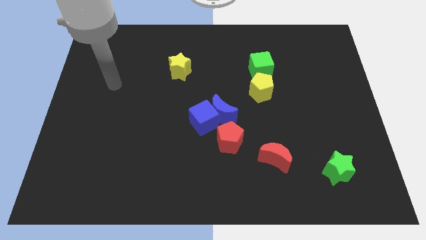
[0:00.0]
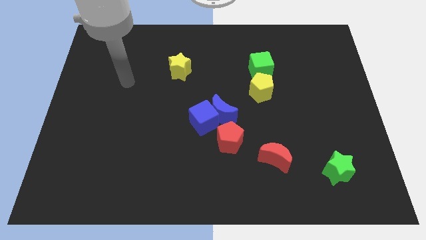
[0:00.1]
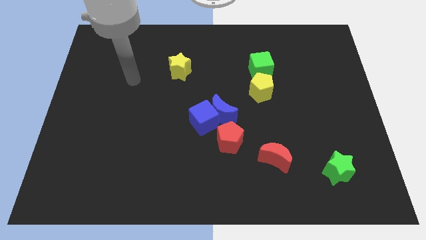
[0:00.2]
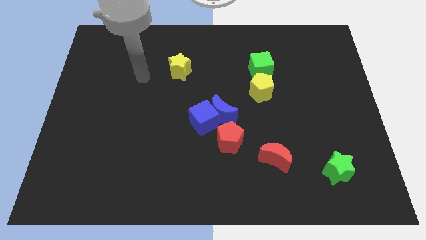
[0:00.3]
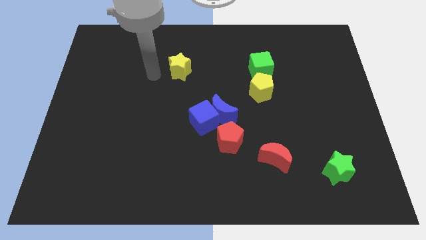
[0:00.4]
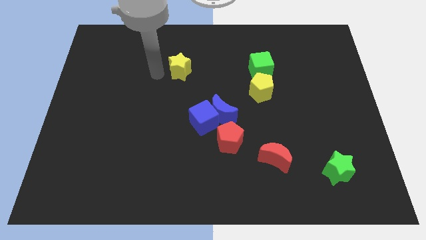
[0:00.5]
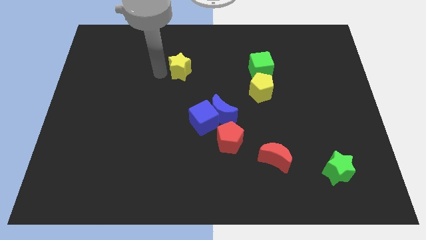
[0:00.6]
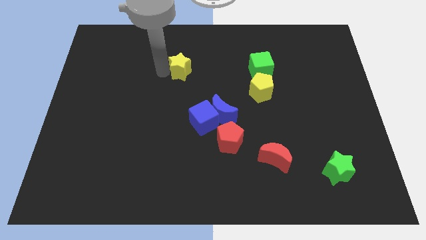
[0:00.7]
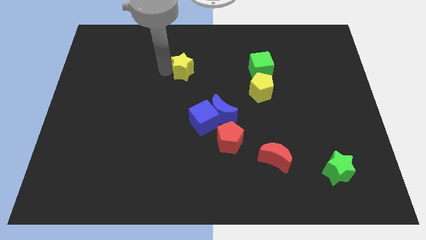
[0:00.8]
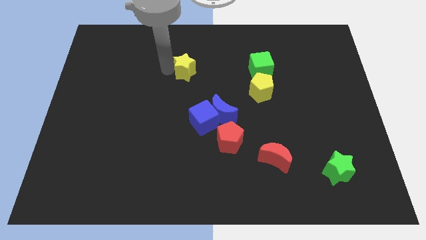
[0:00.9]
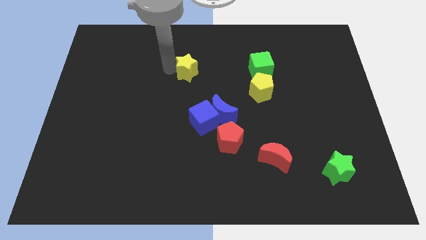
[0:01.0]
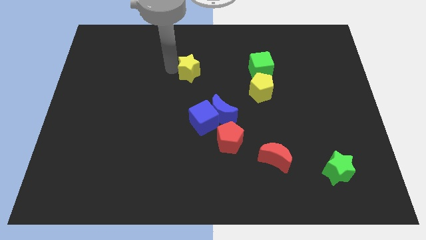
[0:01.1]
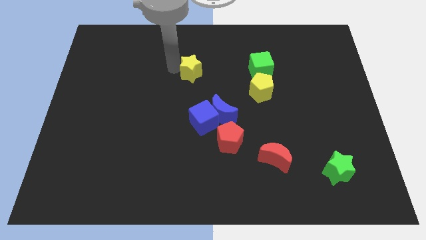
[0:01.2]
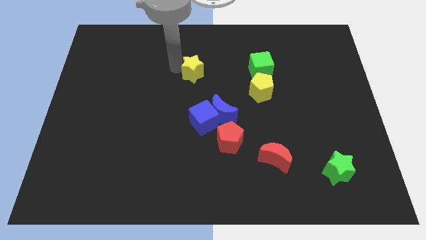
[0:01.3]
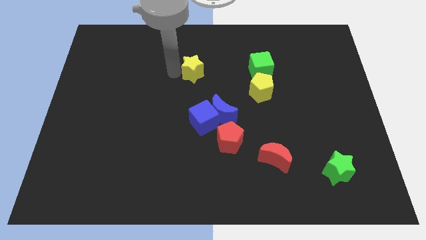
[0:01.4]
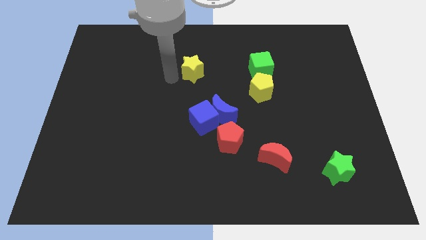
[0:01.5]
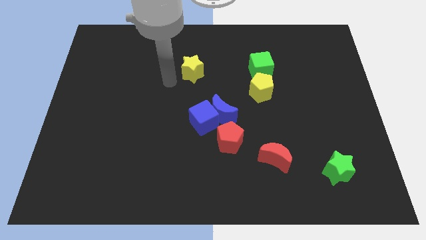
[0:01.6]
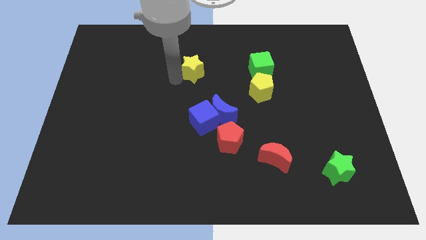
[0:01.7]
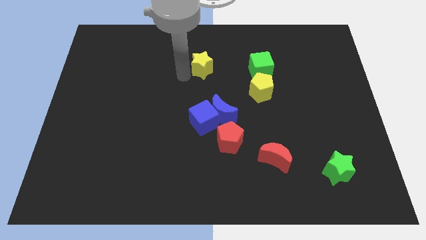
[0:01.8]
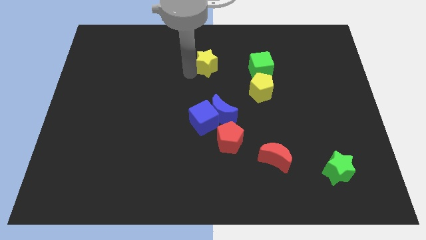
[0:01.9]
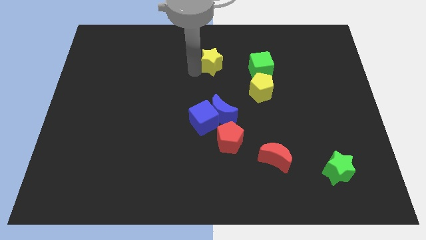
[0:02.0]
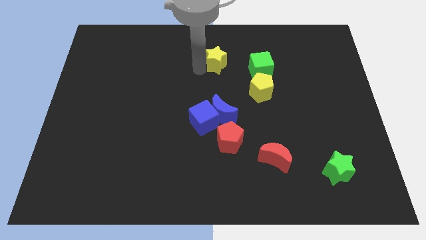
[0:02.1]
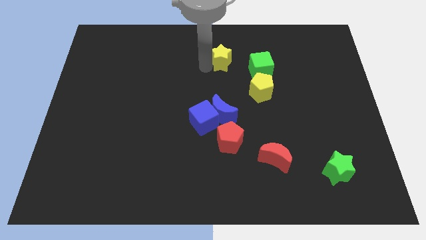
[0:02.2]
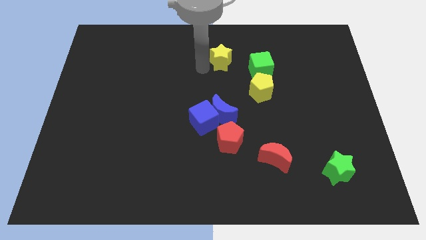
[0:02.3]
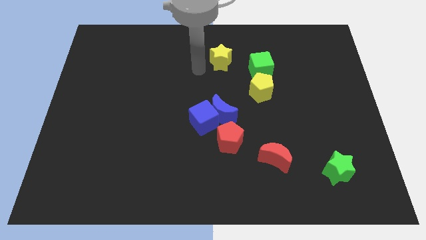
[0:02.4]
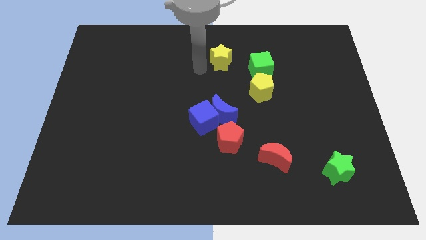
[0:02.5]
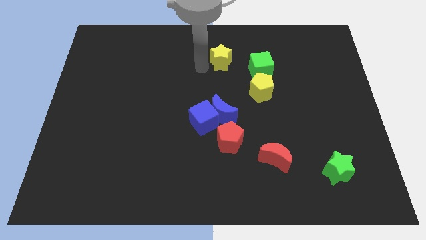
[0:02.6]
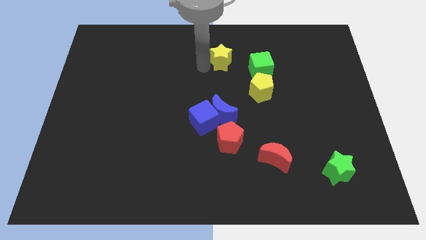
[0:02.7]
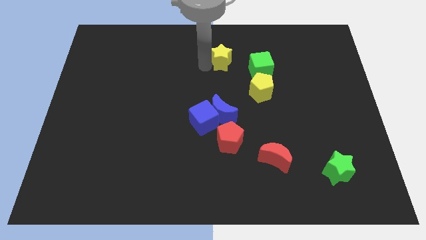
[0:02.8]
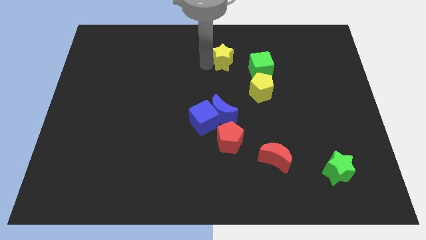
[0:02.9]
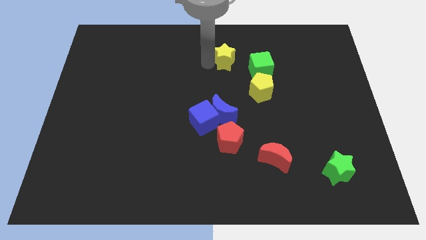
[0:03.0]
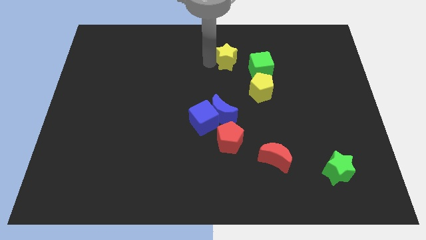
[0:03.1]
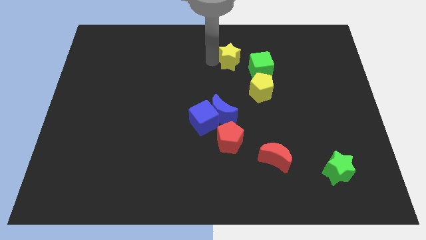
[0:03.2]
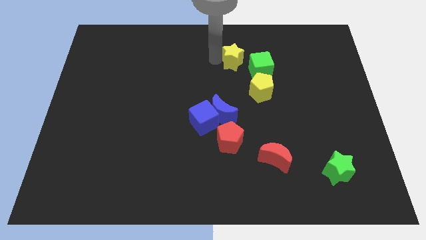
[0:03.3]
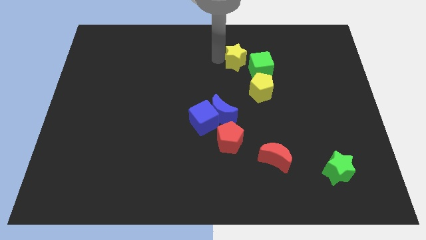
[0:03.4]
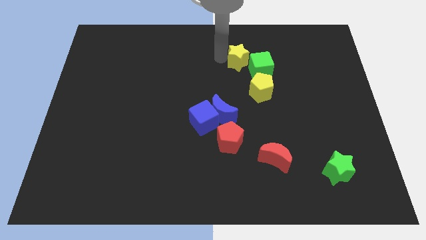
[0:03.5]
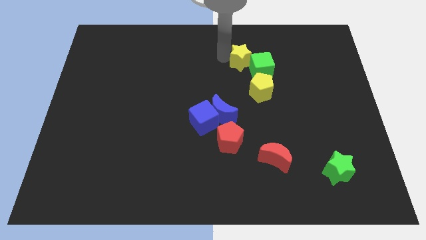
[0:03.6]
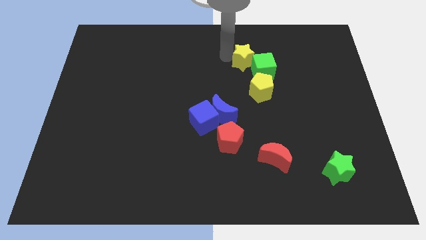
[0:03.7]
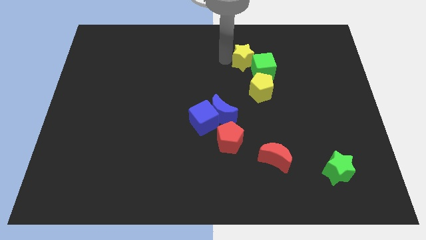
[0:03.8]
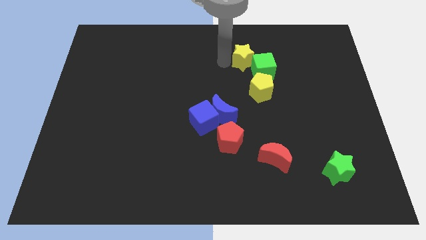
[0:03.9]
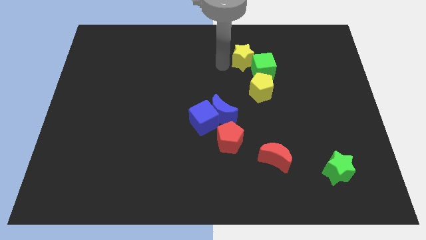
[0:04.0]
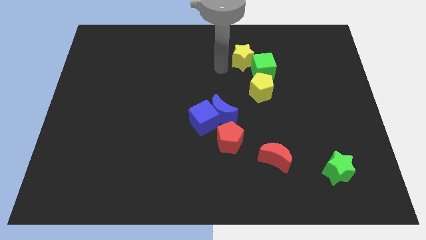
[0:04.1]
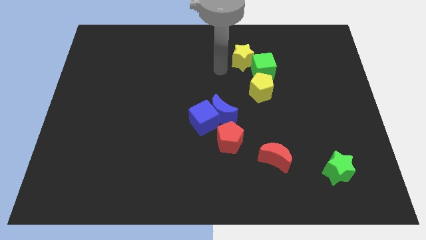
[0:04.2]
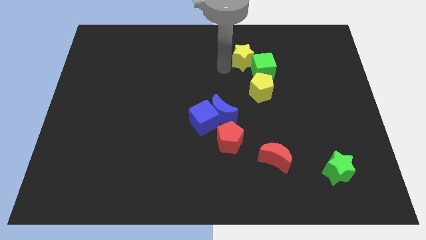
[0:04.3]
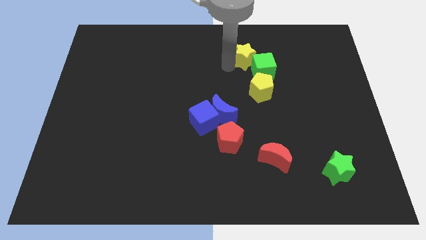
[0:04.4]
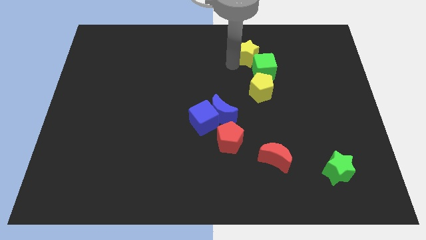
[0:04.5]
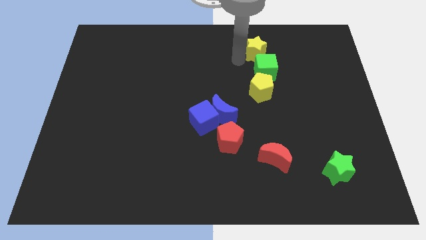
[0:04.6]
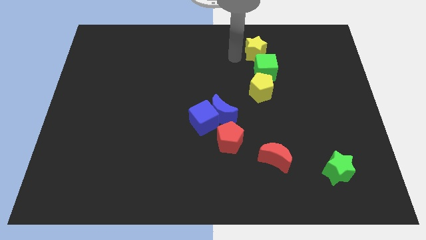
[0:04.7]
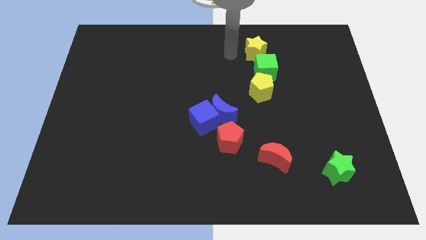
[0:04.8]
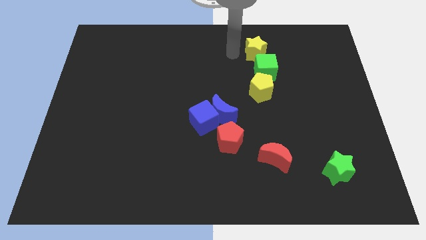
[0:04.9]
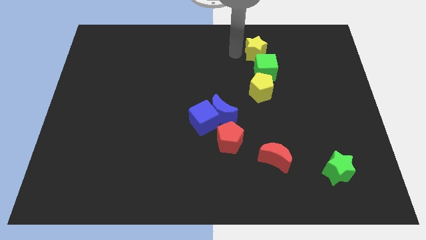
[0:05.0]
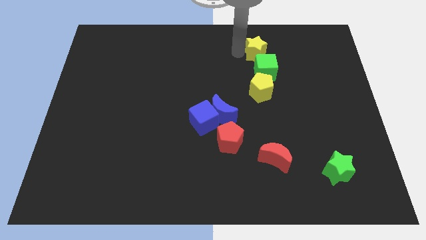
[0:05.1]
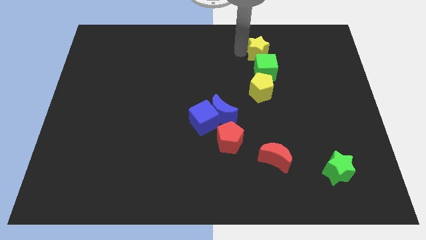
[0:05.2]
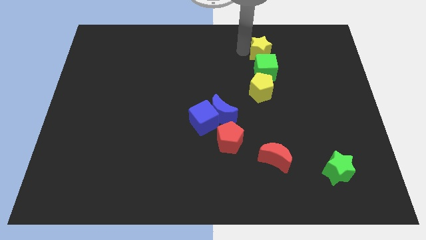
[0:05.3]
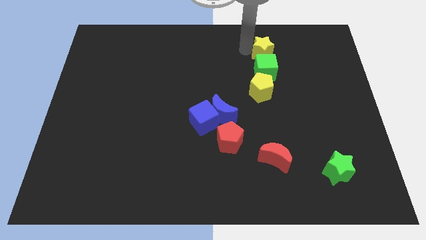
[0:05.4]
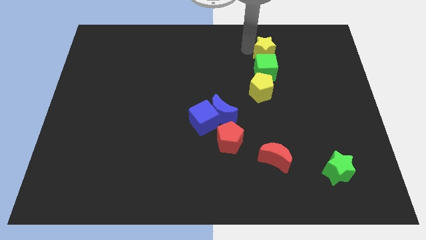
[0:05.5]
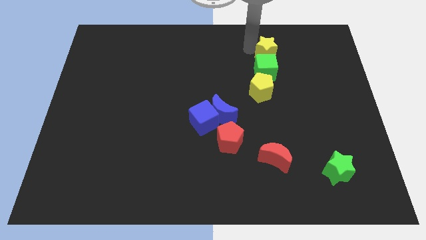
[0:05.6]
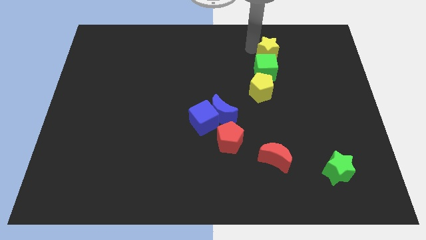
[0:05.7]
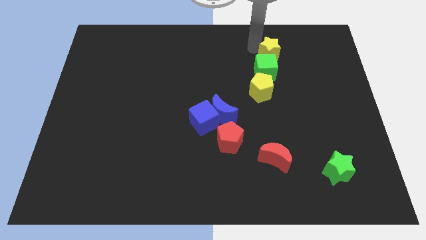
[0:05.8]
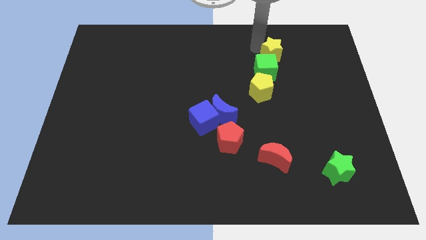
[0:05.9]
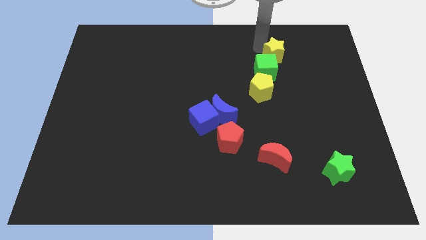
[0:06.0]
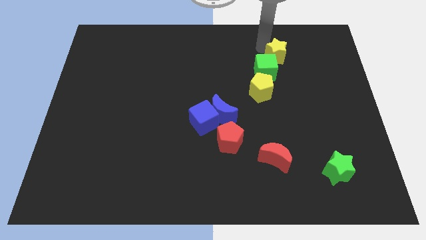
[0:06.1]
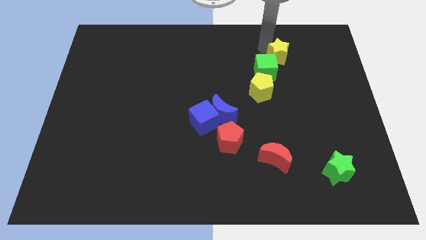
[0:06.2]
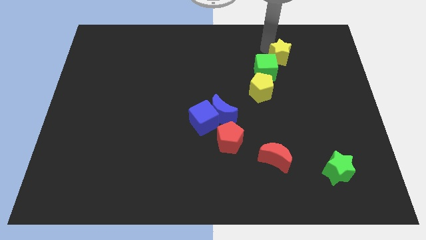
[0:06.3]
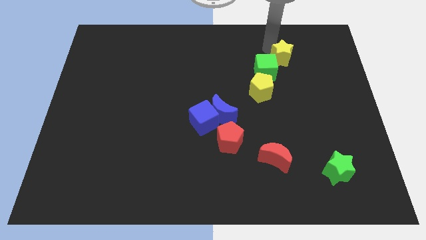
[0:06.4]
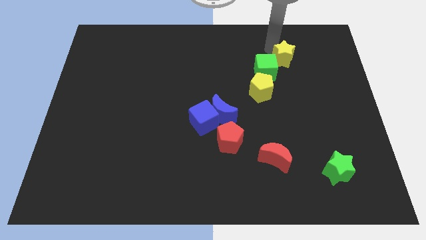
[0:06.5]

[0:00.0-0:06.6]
put the yellow star just right of the green cube

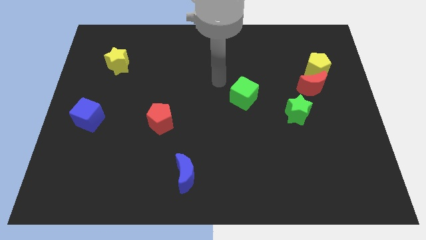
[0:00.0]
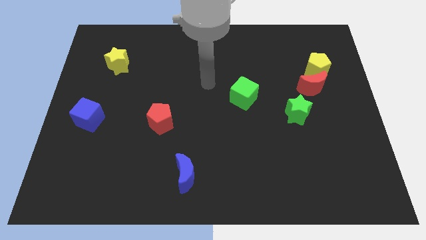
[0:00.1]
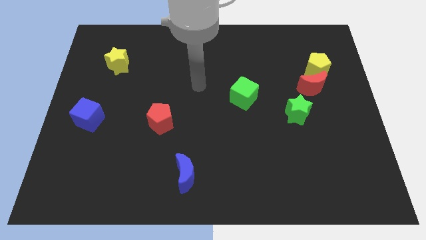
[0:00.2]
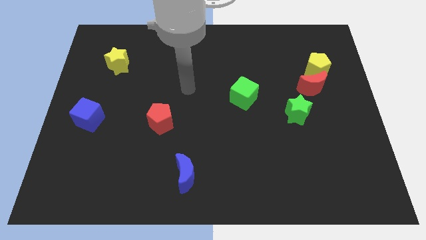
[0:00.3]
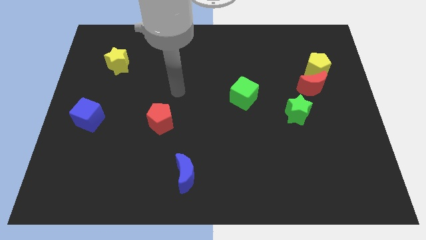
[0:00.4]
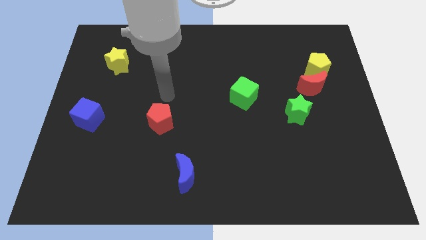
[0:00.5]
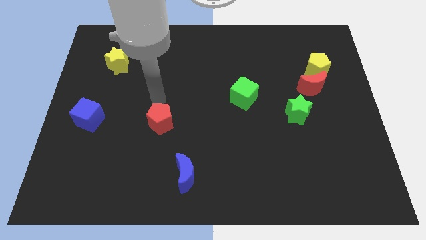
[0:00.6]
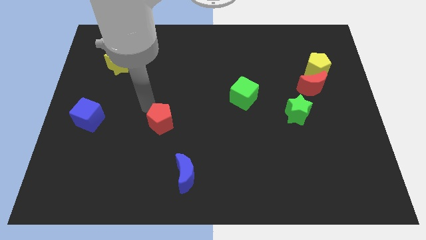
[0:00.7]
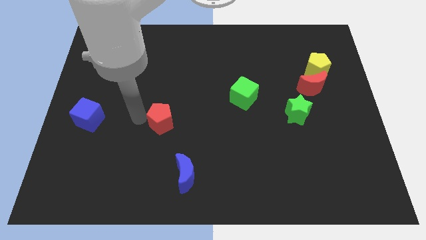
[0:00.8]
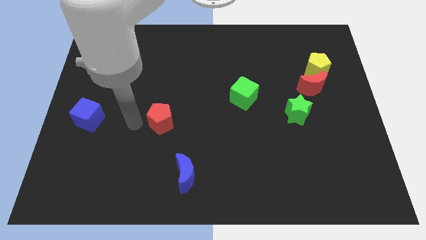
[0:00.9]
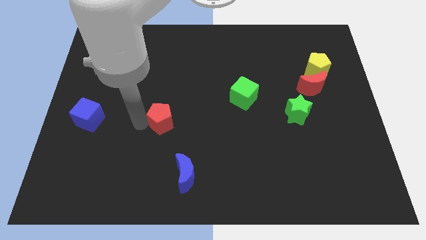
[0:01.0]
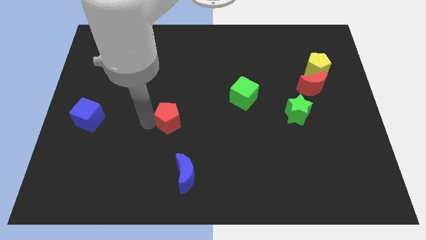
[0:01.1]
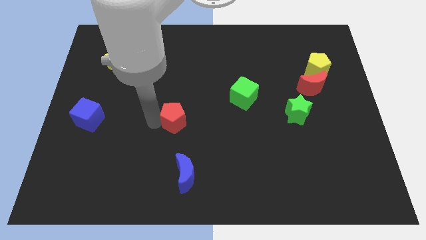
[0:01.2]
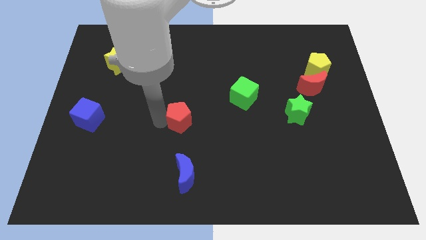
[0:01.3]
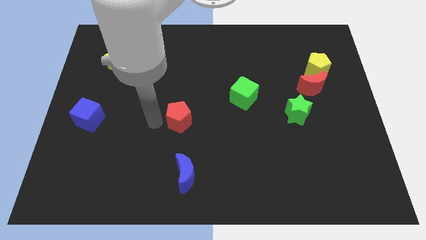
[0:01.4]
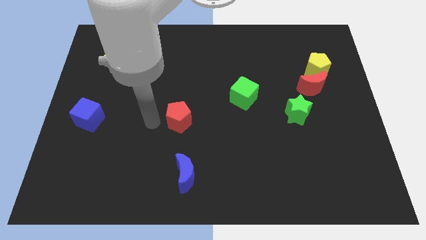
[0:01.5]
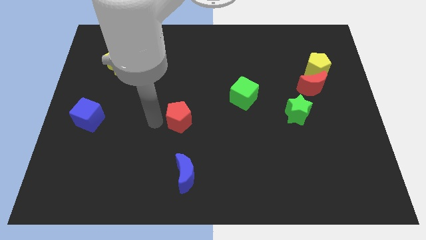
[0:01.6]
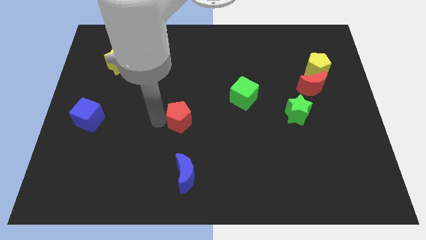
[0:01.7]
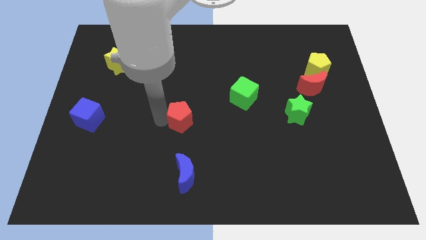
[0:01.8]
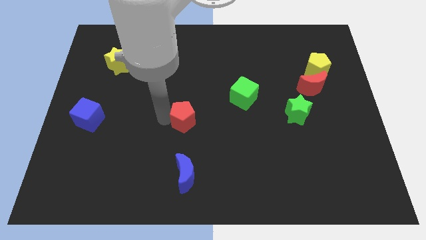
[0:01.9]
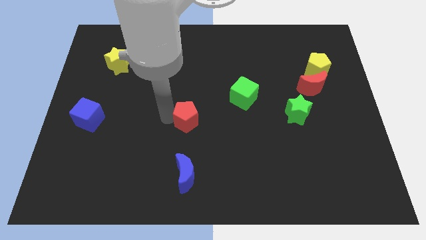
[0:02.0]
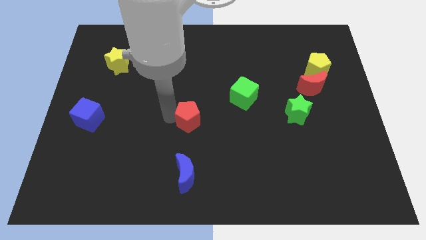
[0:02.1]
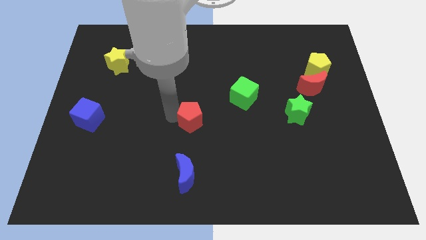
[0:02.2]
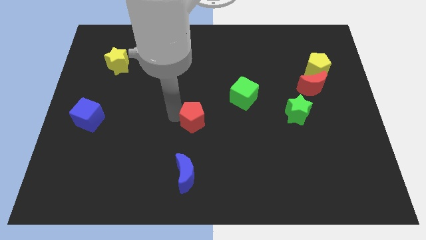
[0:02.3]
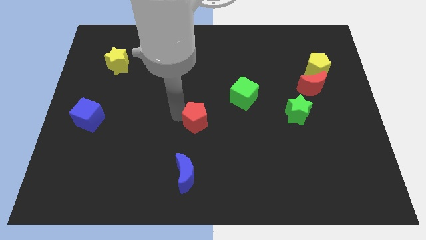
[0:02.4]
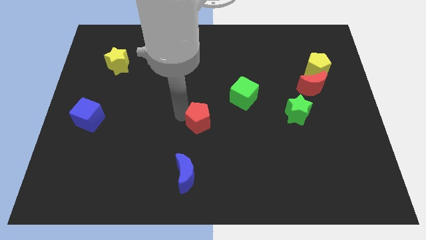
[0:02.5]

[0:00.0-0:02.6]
move the red pentagon to the bottom left side of the green cube
